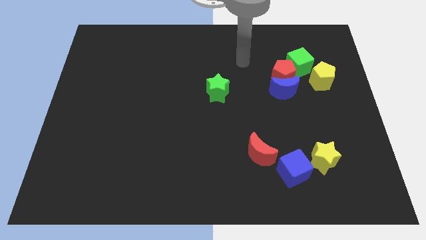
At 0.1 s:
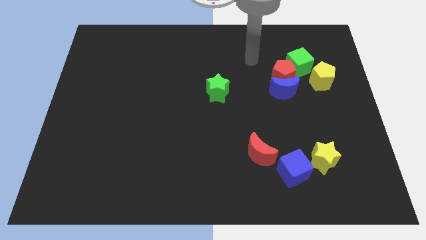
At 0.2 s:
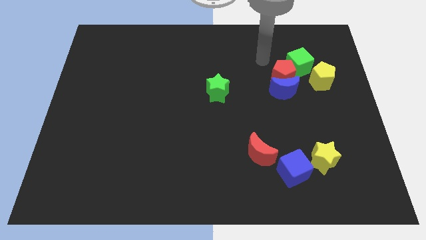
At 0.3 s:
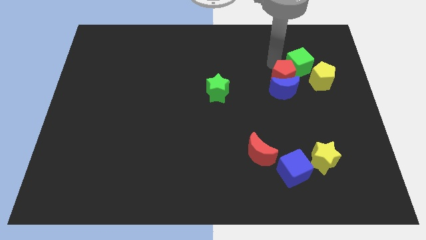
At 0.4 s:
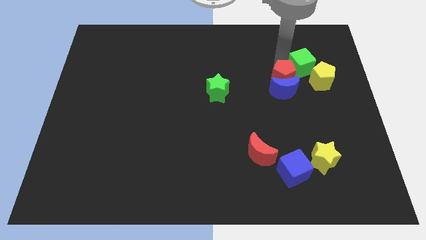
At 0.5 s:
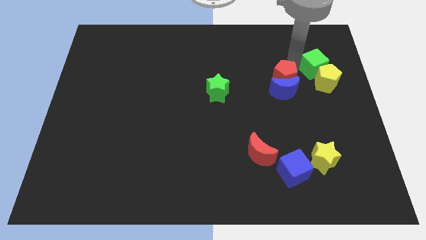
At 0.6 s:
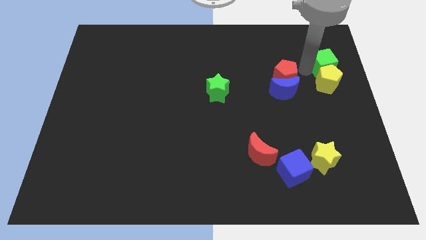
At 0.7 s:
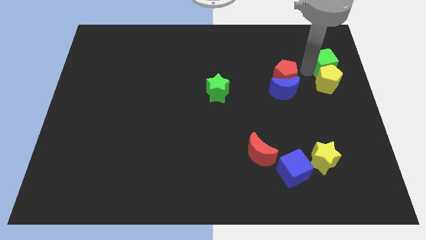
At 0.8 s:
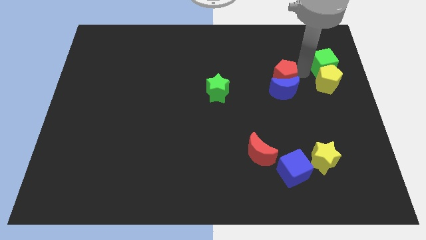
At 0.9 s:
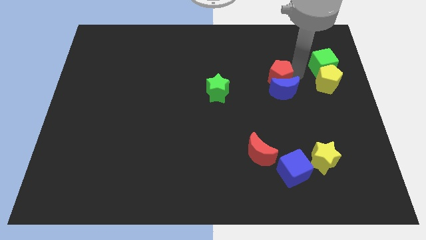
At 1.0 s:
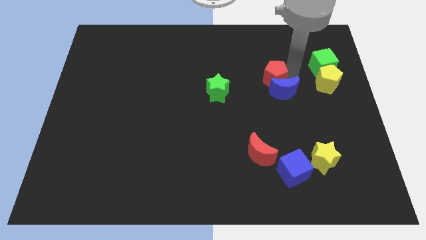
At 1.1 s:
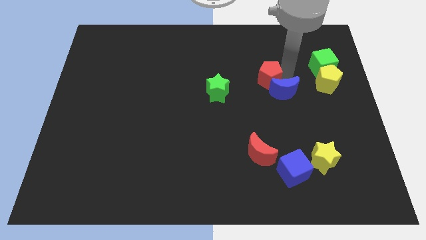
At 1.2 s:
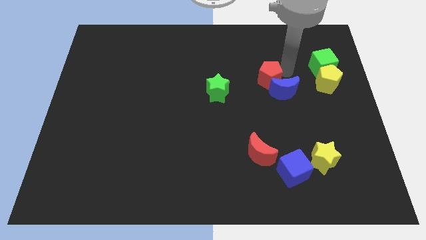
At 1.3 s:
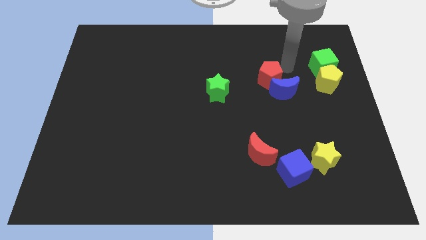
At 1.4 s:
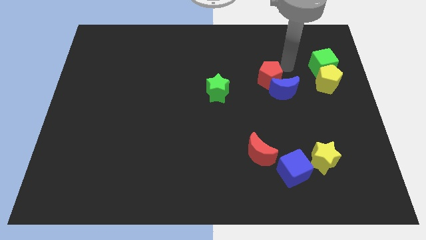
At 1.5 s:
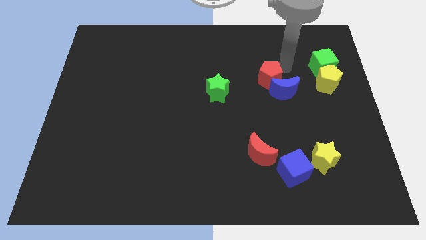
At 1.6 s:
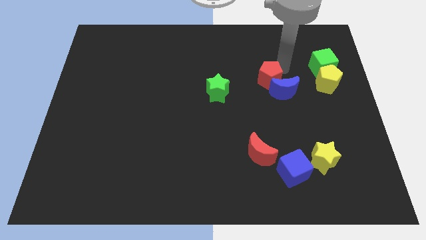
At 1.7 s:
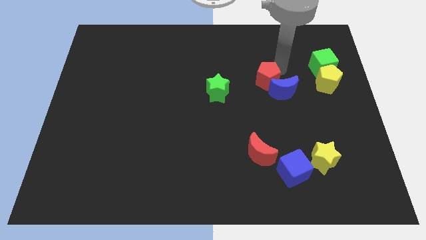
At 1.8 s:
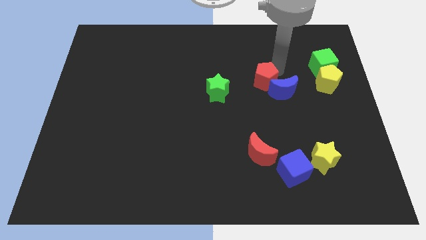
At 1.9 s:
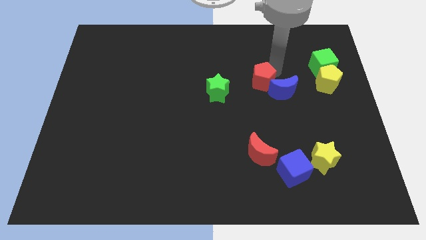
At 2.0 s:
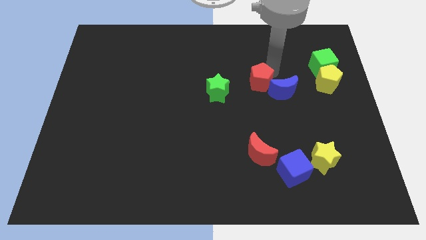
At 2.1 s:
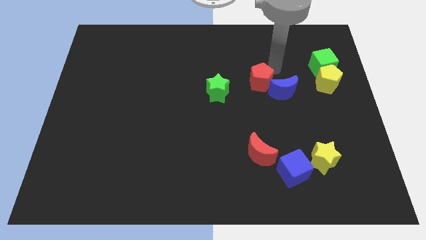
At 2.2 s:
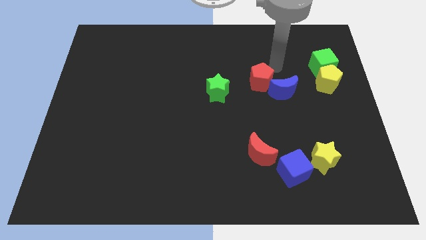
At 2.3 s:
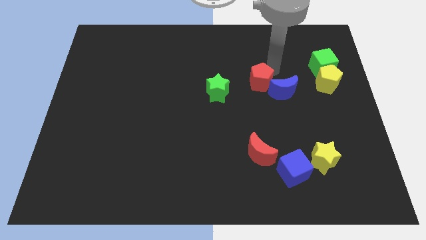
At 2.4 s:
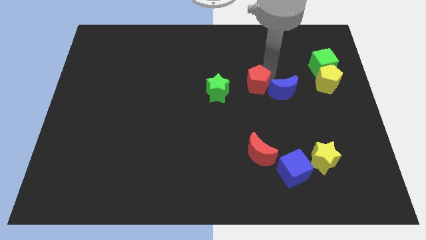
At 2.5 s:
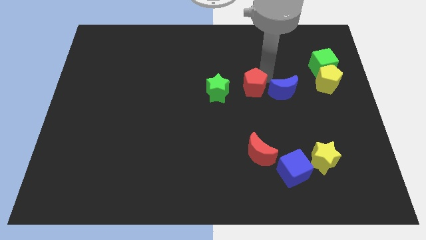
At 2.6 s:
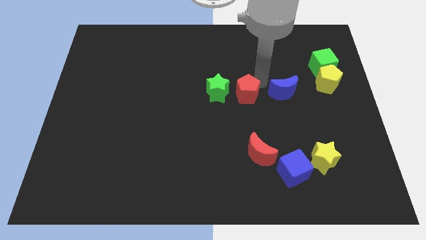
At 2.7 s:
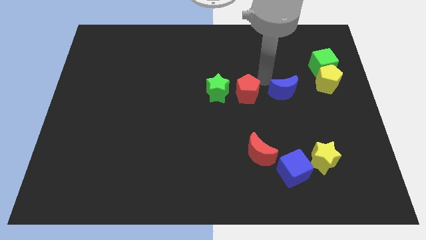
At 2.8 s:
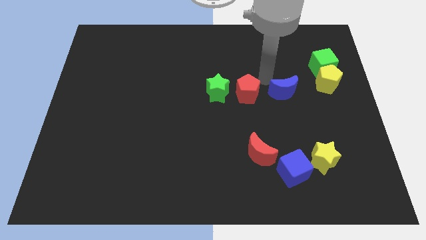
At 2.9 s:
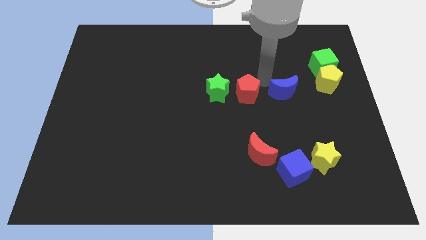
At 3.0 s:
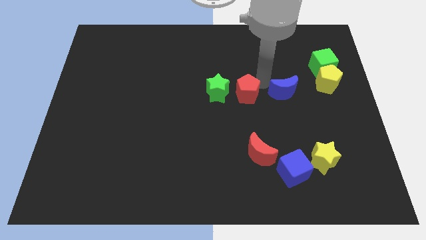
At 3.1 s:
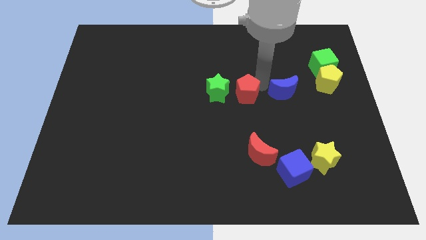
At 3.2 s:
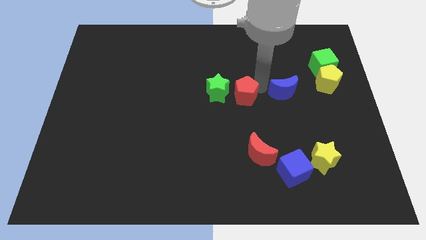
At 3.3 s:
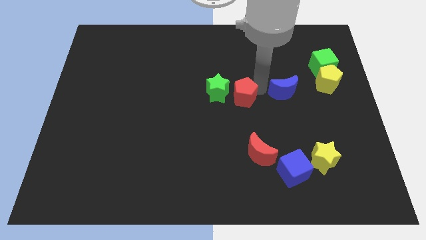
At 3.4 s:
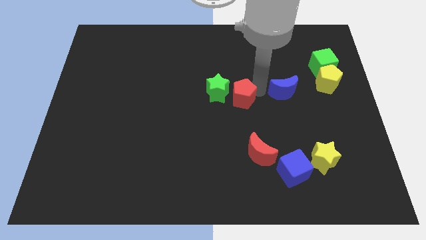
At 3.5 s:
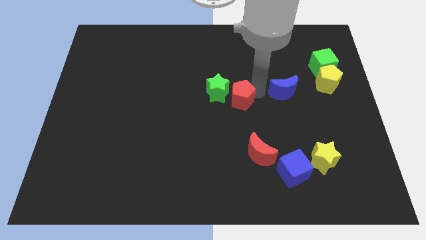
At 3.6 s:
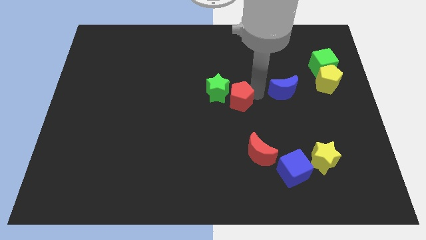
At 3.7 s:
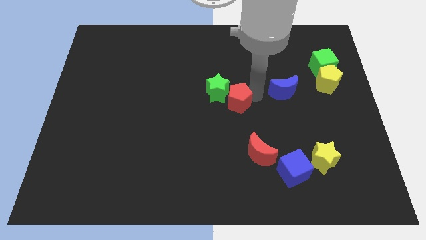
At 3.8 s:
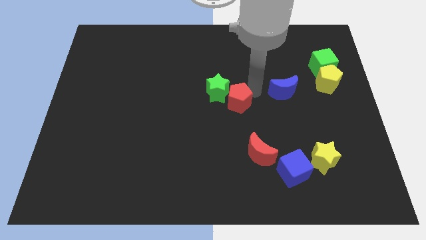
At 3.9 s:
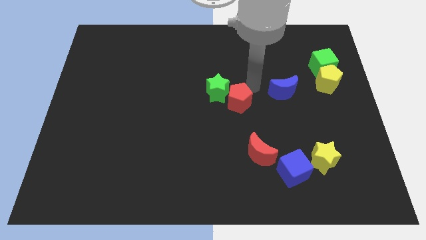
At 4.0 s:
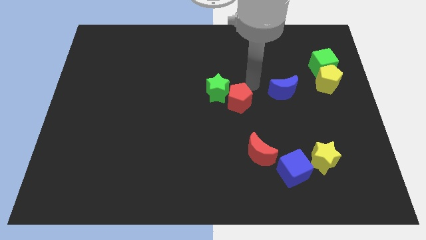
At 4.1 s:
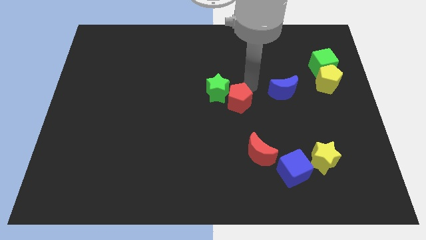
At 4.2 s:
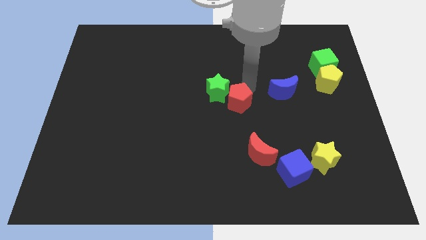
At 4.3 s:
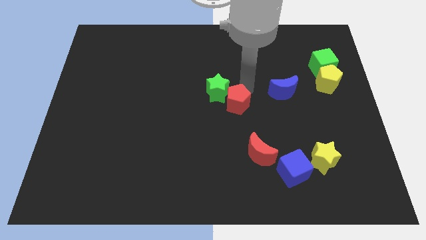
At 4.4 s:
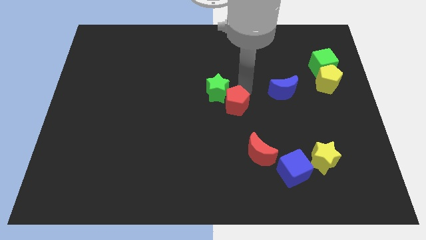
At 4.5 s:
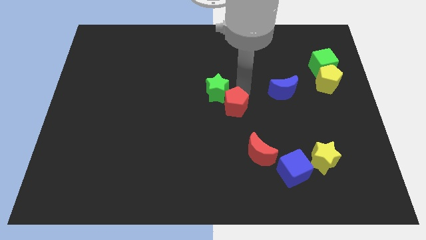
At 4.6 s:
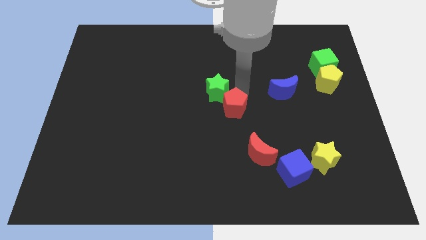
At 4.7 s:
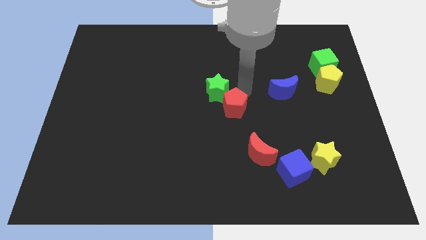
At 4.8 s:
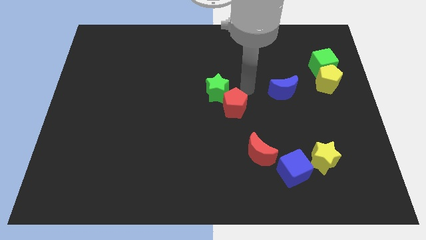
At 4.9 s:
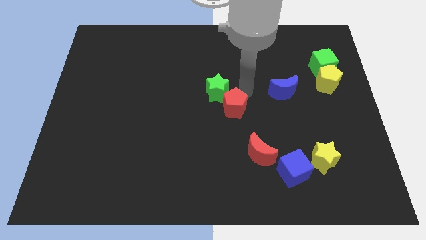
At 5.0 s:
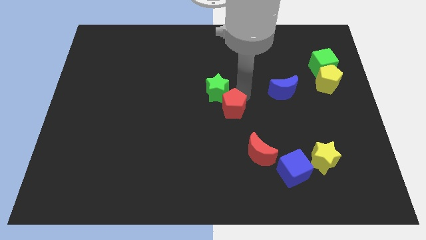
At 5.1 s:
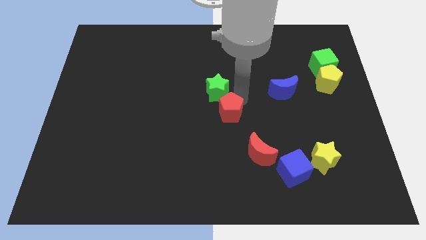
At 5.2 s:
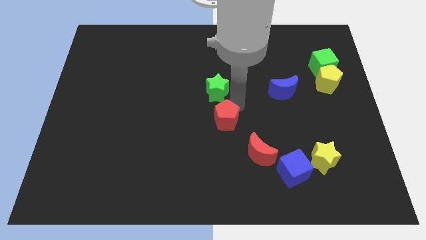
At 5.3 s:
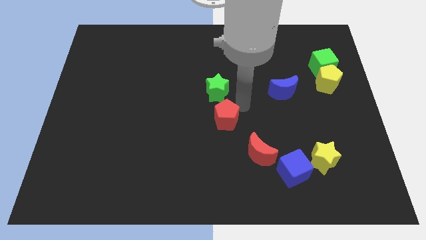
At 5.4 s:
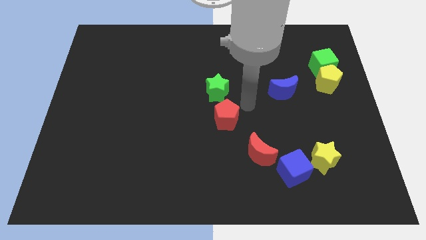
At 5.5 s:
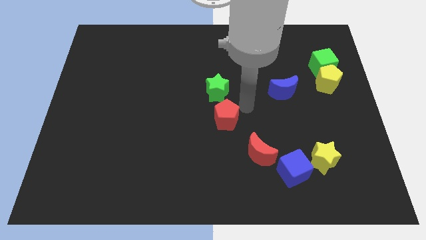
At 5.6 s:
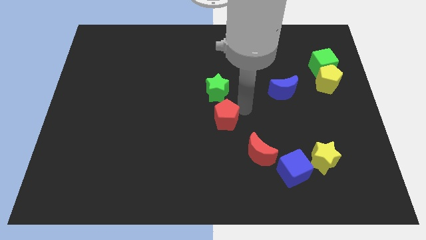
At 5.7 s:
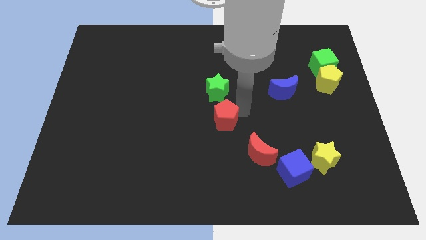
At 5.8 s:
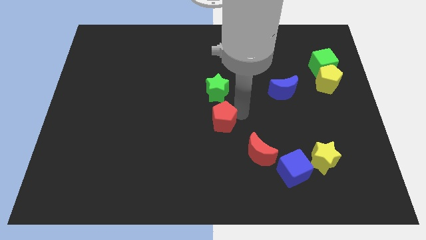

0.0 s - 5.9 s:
slide the red pentagon down and to the left

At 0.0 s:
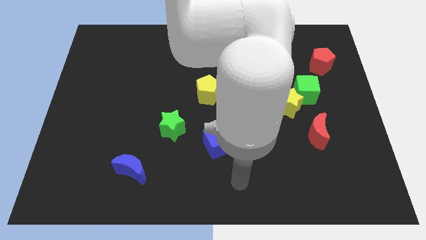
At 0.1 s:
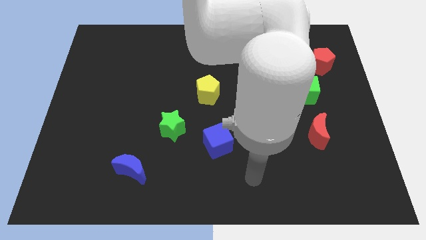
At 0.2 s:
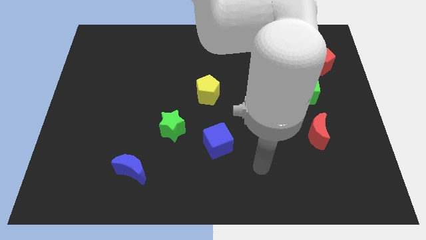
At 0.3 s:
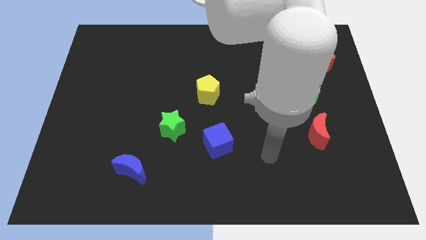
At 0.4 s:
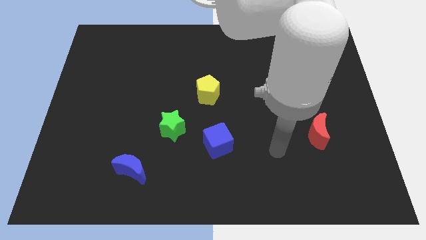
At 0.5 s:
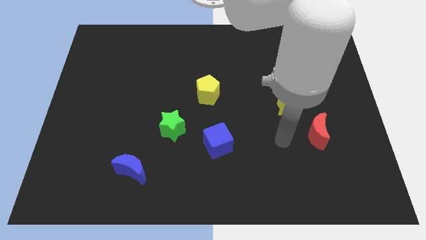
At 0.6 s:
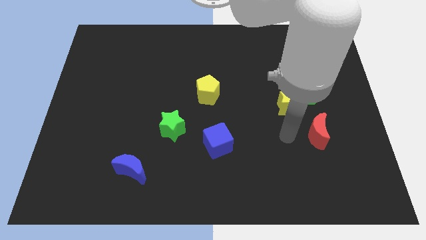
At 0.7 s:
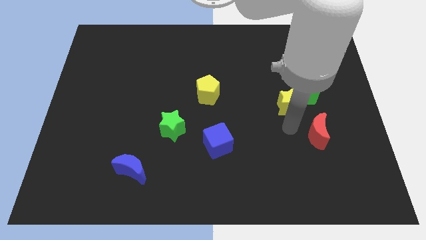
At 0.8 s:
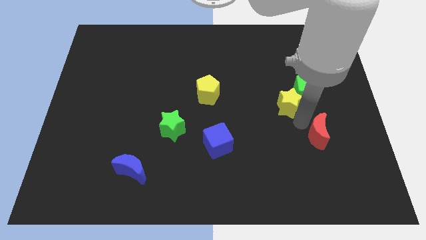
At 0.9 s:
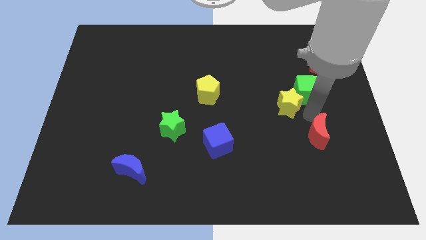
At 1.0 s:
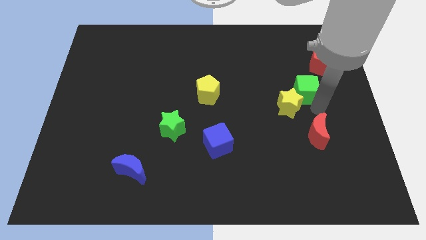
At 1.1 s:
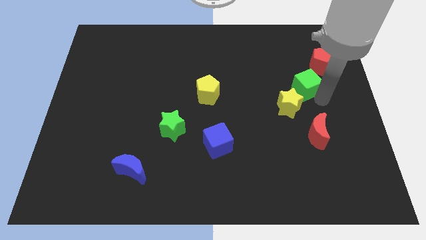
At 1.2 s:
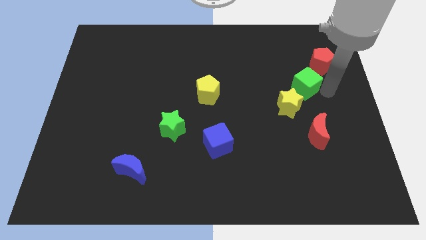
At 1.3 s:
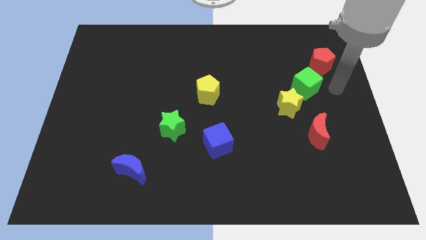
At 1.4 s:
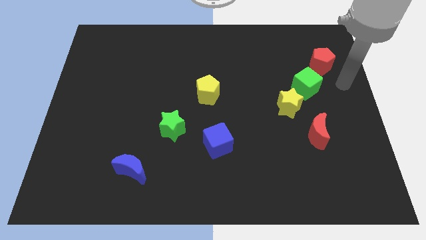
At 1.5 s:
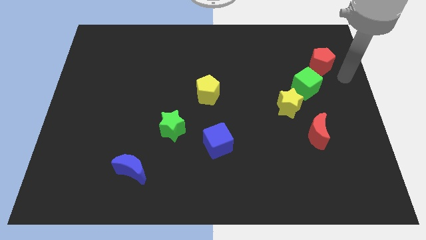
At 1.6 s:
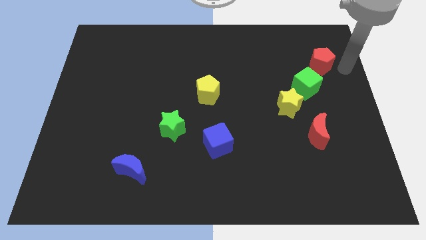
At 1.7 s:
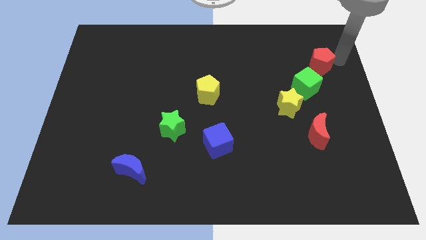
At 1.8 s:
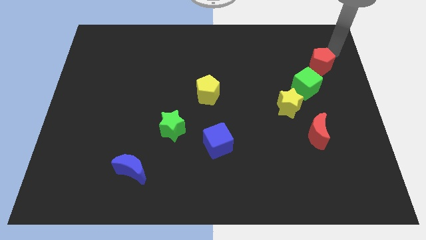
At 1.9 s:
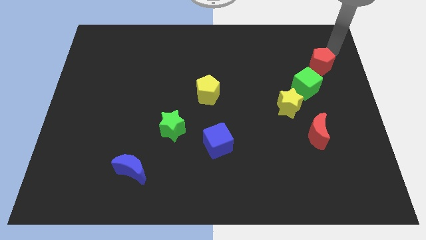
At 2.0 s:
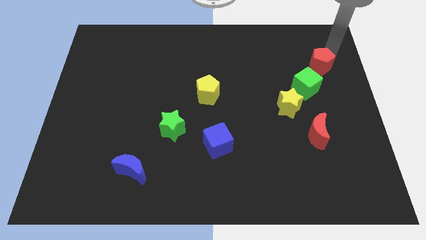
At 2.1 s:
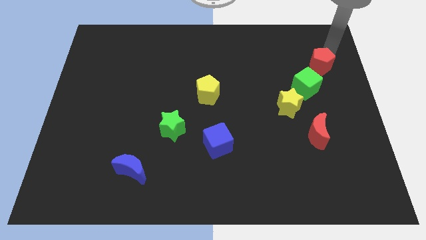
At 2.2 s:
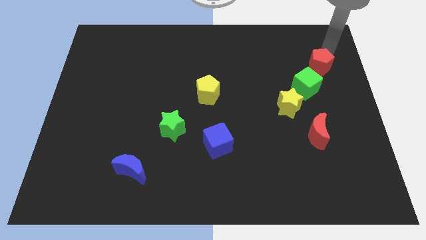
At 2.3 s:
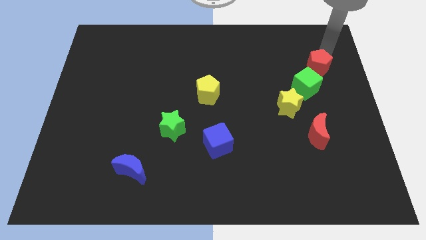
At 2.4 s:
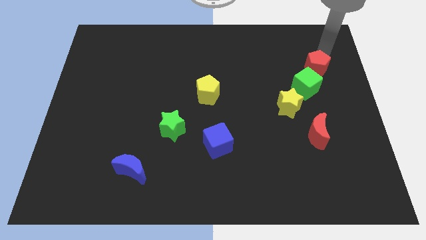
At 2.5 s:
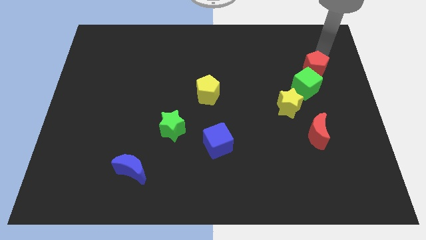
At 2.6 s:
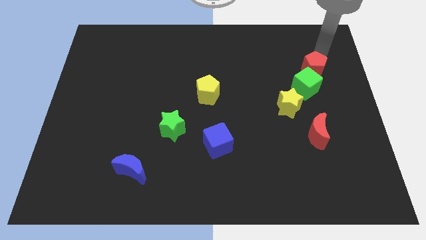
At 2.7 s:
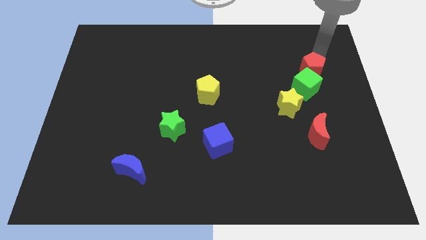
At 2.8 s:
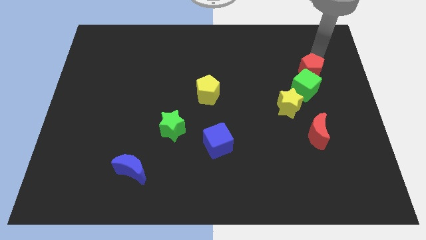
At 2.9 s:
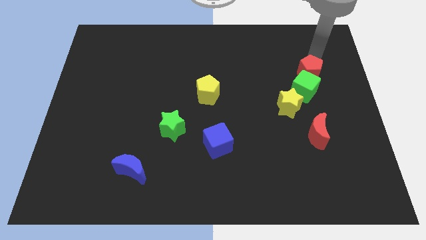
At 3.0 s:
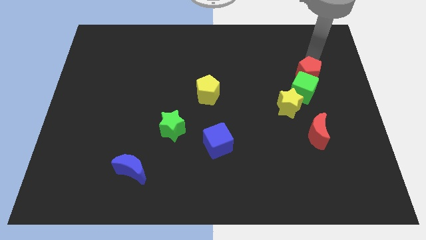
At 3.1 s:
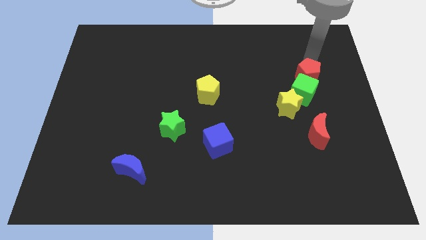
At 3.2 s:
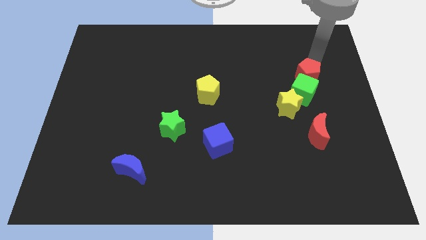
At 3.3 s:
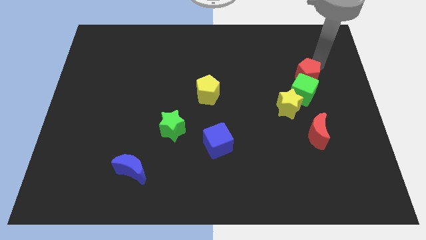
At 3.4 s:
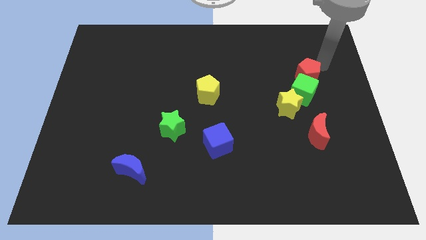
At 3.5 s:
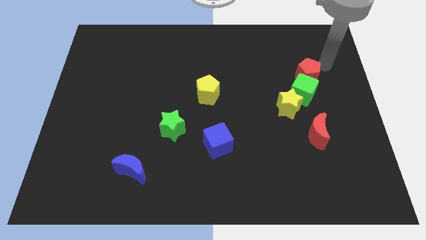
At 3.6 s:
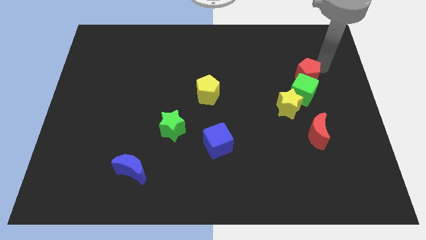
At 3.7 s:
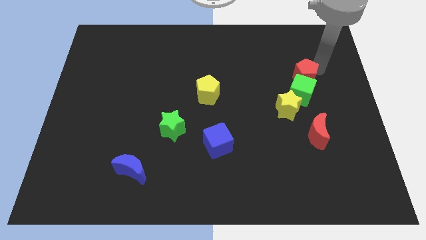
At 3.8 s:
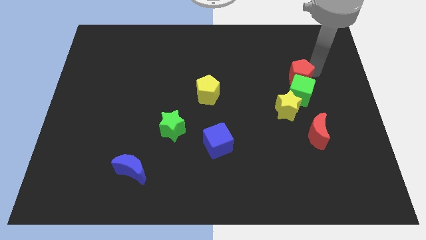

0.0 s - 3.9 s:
push the red pentagon somewhat downwards and then left
